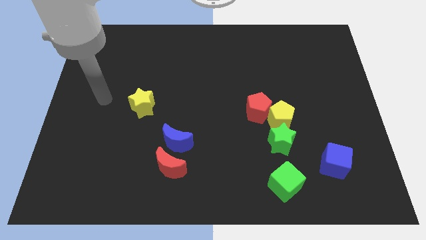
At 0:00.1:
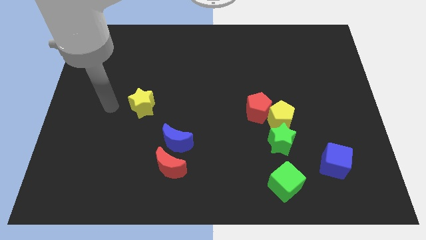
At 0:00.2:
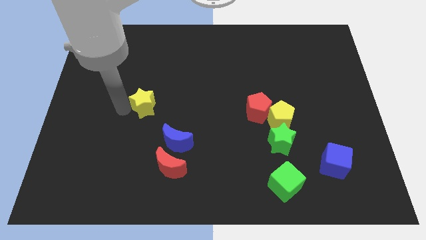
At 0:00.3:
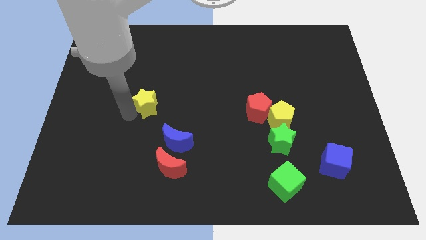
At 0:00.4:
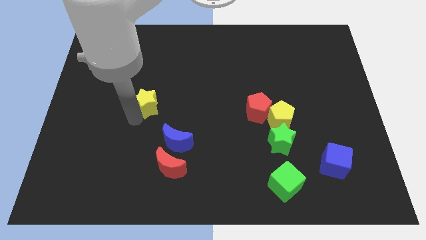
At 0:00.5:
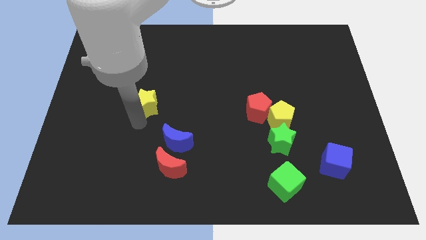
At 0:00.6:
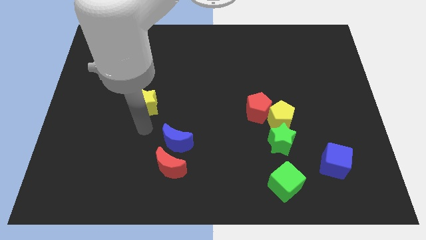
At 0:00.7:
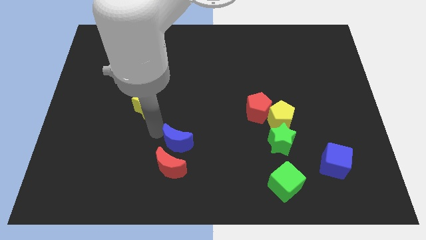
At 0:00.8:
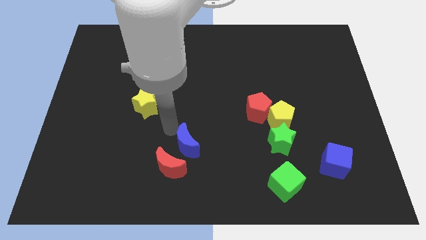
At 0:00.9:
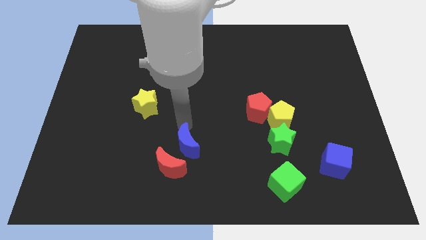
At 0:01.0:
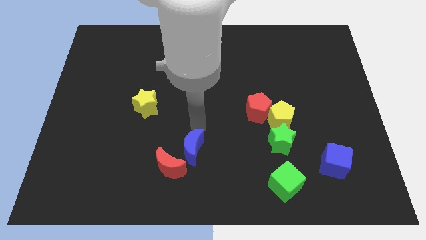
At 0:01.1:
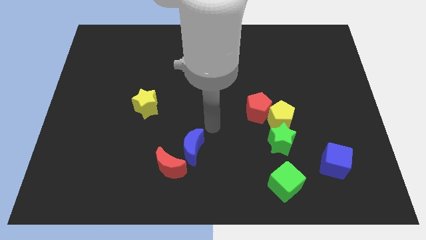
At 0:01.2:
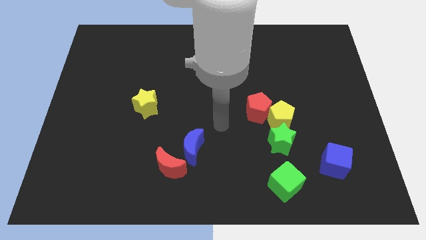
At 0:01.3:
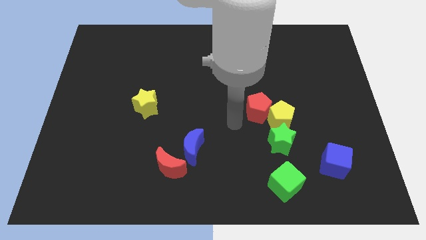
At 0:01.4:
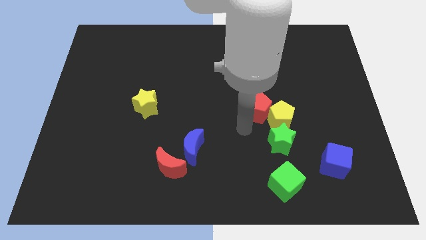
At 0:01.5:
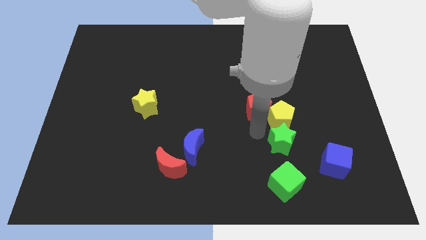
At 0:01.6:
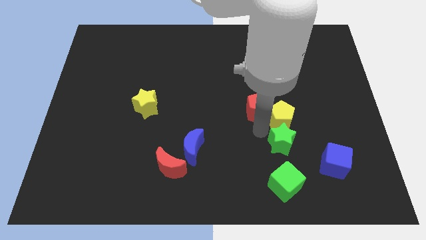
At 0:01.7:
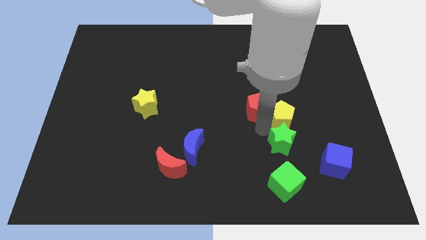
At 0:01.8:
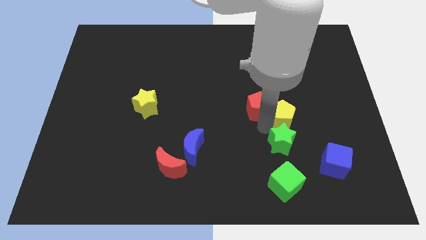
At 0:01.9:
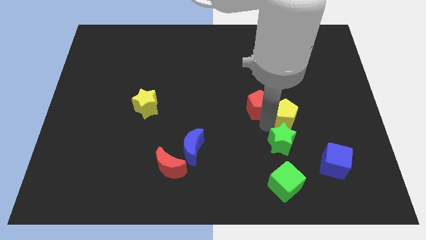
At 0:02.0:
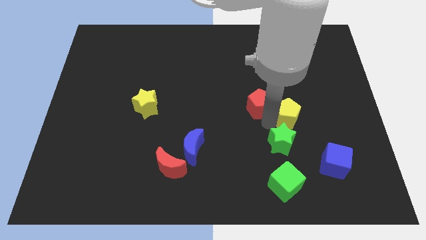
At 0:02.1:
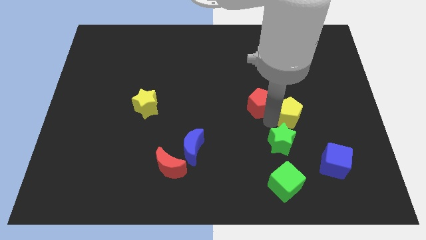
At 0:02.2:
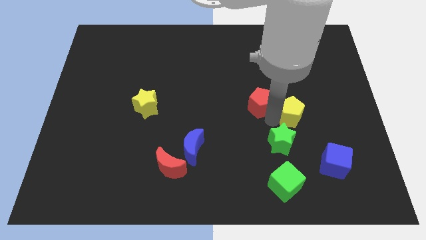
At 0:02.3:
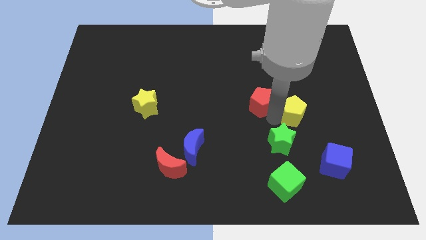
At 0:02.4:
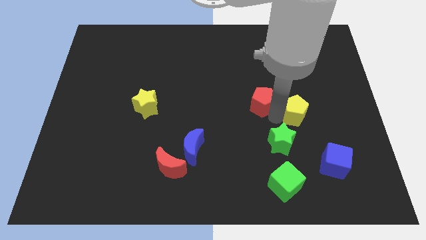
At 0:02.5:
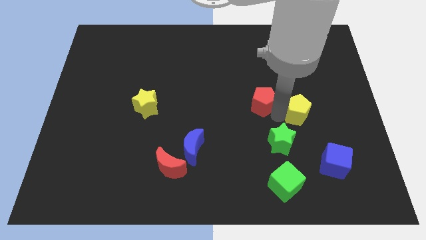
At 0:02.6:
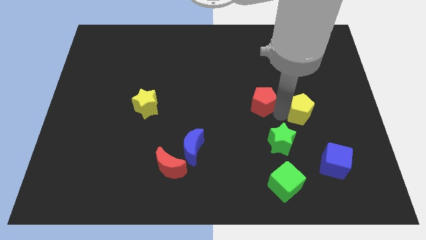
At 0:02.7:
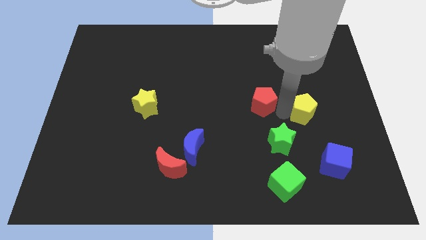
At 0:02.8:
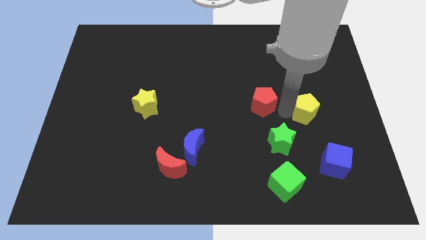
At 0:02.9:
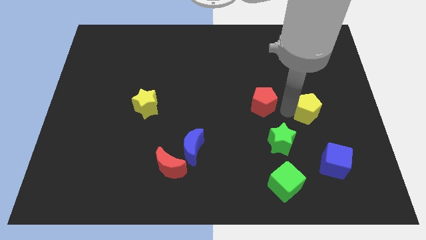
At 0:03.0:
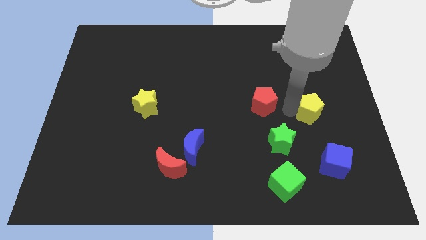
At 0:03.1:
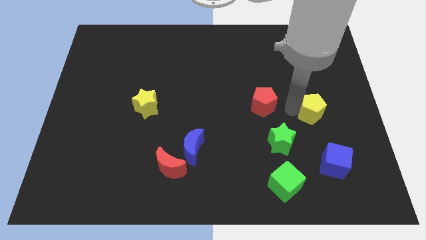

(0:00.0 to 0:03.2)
separate the yellow pentagon from the red pentagon and green star

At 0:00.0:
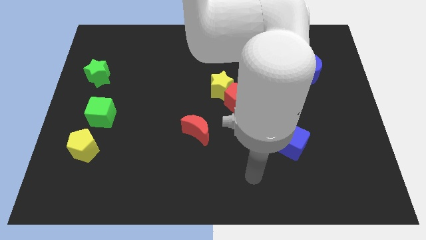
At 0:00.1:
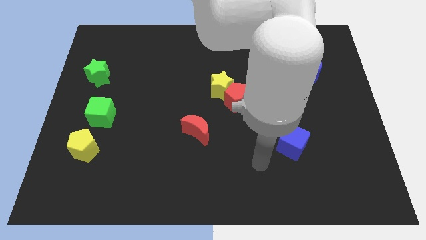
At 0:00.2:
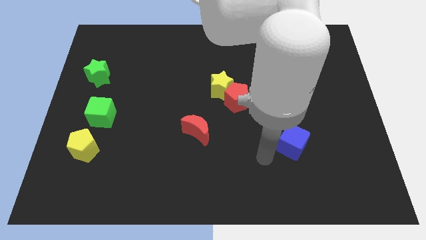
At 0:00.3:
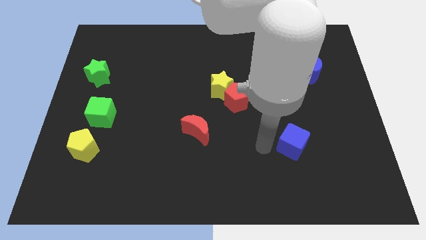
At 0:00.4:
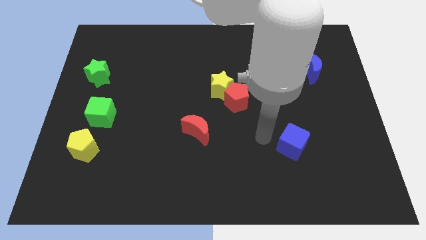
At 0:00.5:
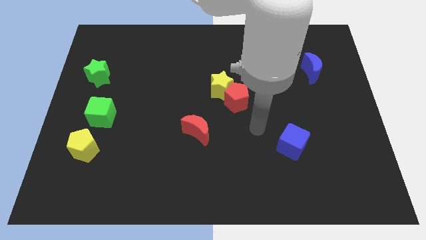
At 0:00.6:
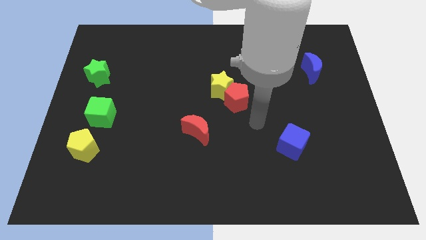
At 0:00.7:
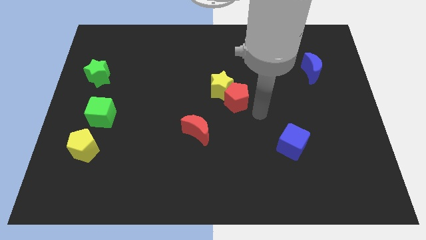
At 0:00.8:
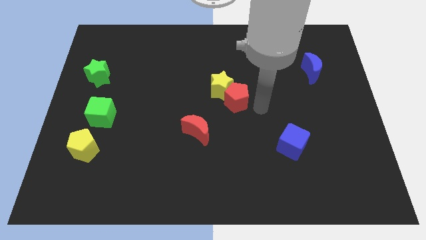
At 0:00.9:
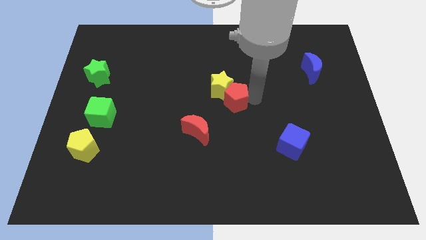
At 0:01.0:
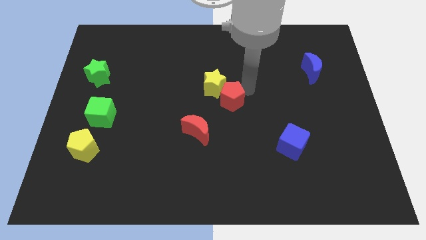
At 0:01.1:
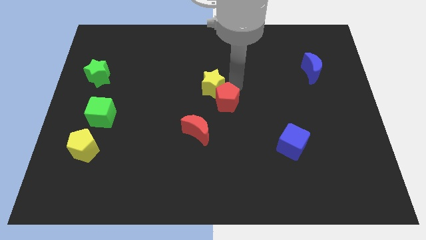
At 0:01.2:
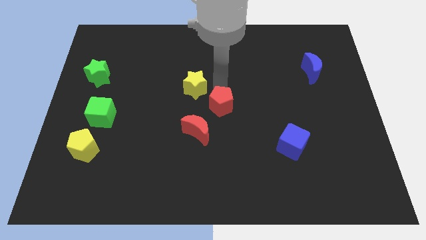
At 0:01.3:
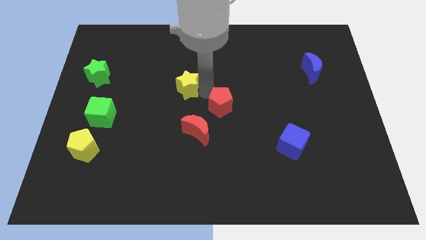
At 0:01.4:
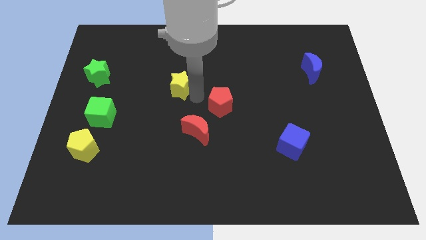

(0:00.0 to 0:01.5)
separate the red pentagon from the yellow star

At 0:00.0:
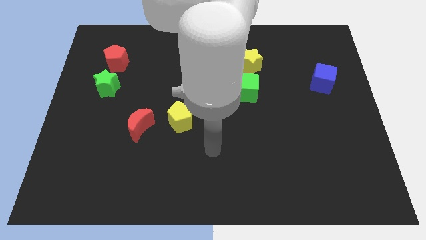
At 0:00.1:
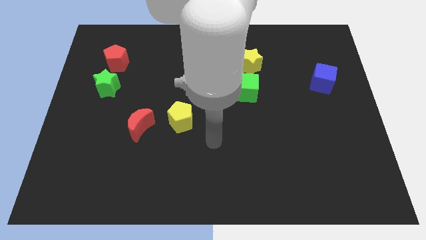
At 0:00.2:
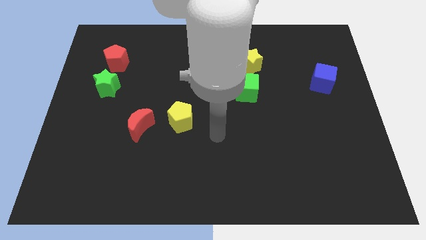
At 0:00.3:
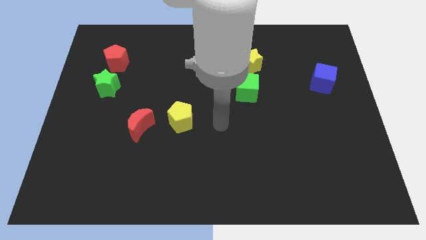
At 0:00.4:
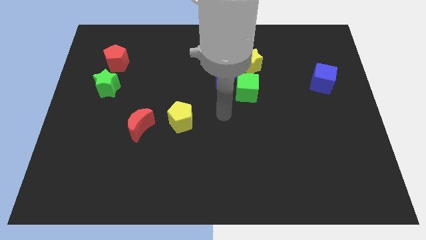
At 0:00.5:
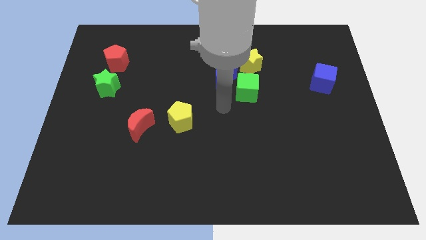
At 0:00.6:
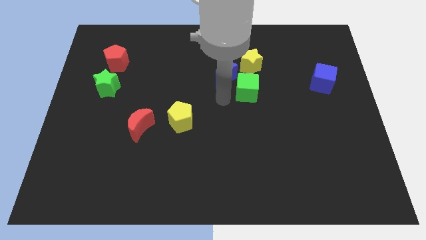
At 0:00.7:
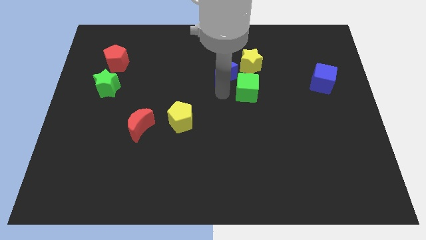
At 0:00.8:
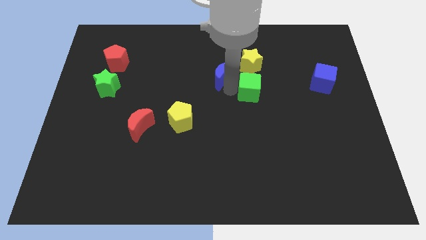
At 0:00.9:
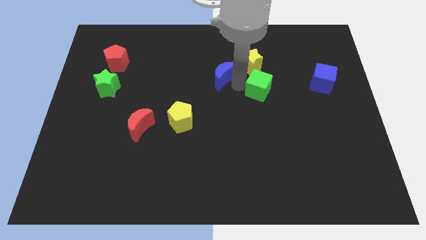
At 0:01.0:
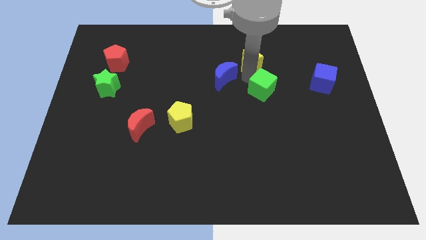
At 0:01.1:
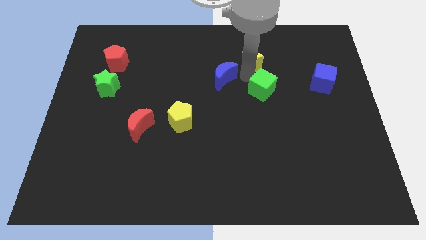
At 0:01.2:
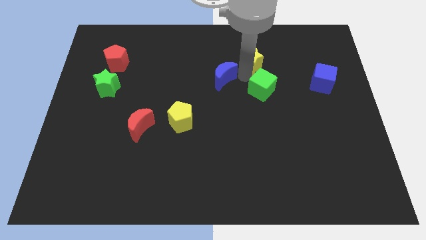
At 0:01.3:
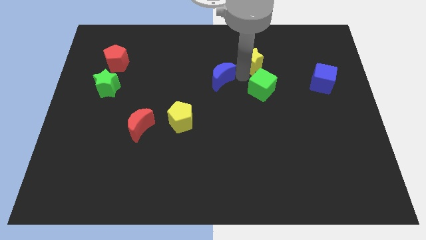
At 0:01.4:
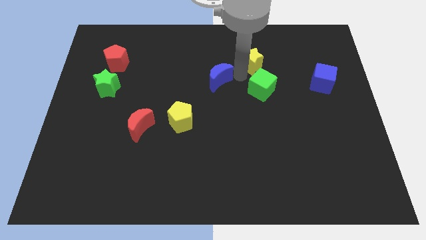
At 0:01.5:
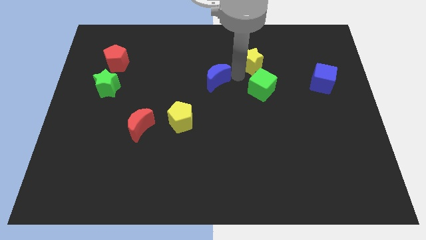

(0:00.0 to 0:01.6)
separate the blue moon from the green cube and yellow star

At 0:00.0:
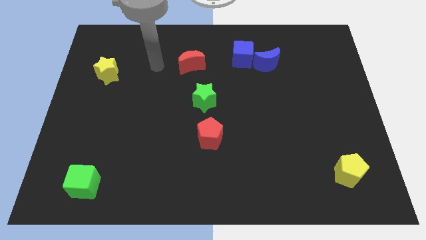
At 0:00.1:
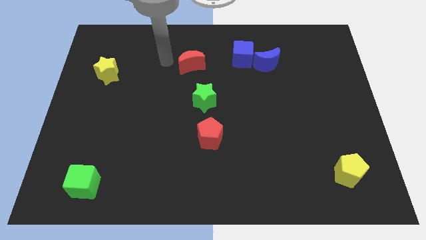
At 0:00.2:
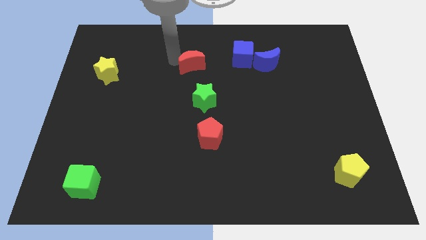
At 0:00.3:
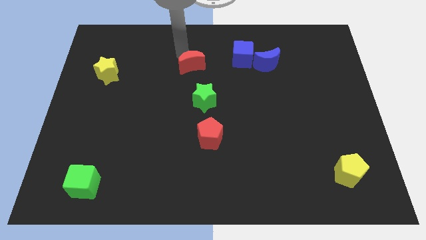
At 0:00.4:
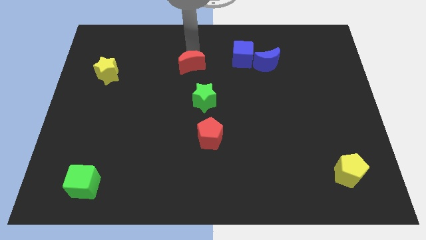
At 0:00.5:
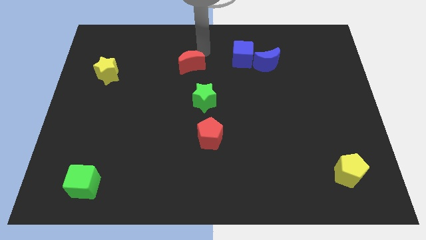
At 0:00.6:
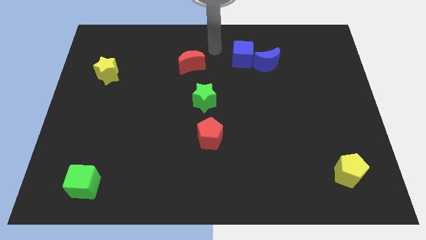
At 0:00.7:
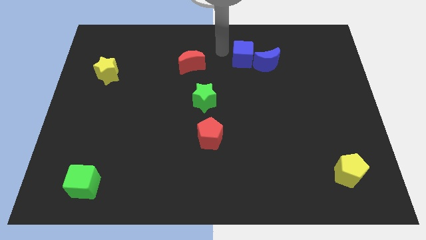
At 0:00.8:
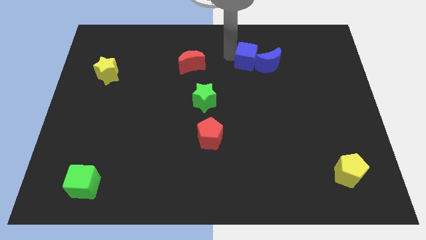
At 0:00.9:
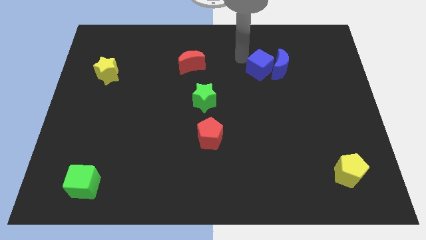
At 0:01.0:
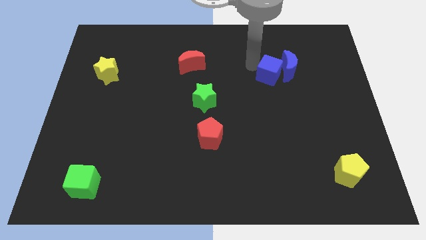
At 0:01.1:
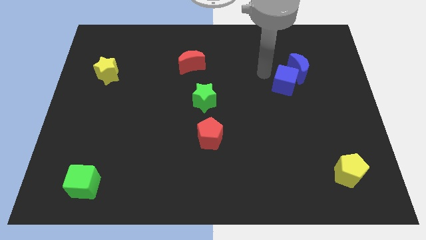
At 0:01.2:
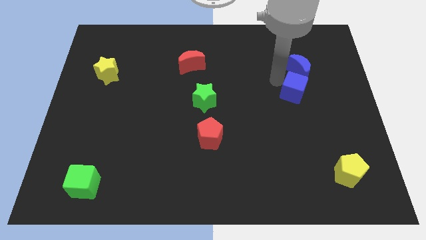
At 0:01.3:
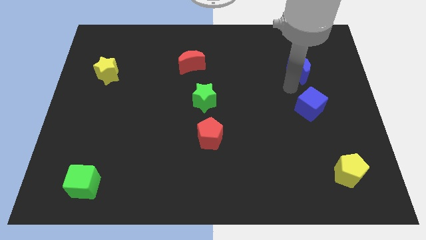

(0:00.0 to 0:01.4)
move the blue moon away from the blue cube

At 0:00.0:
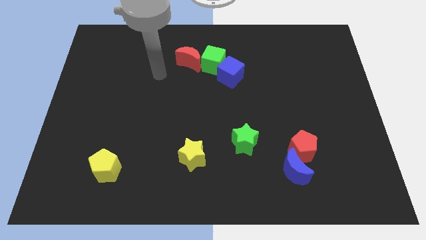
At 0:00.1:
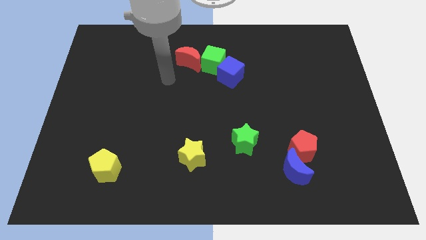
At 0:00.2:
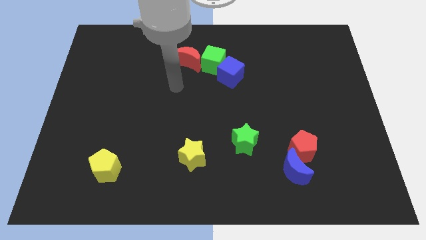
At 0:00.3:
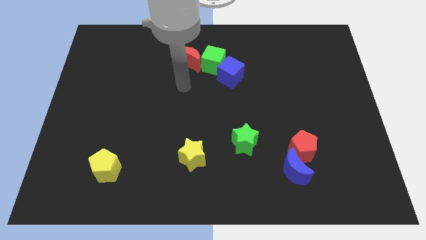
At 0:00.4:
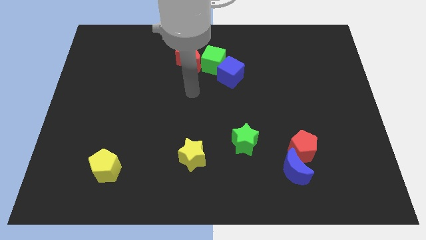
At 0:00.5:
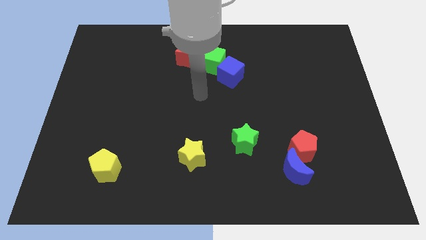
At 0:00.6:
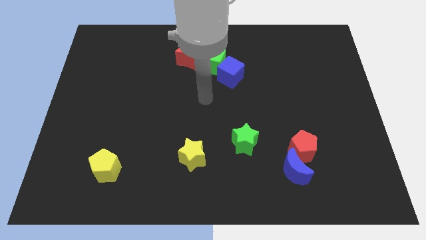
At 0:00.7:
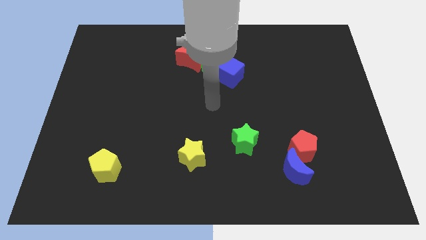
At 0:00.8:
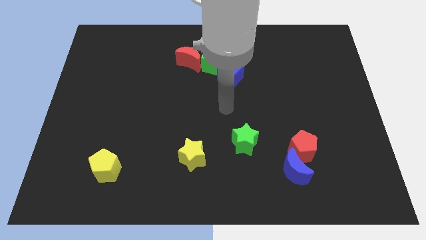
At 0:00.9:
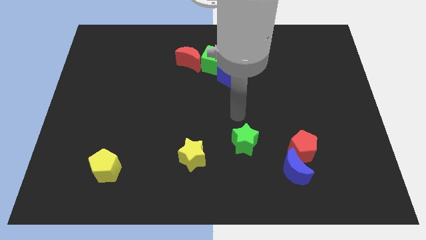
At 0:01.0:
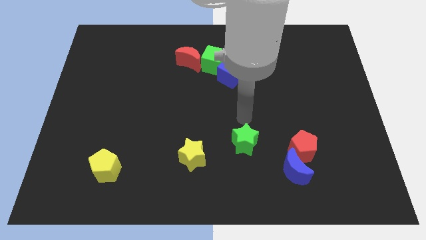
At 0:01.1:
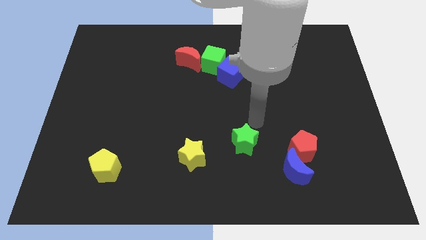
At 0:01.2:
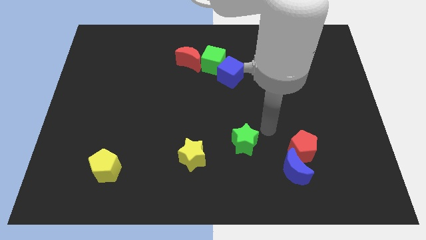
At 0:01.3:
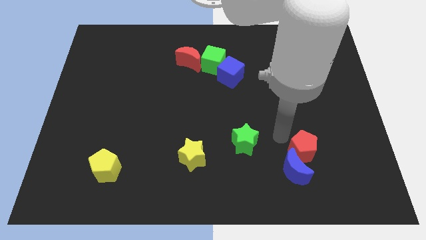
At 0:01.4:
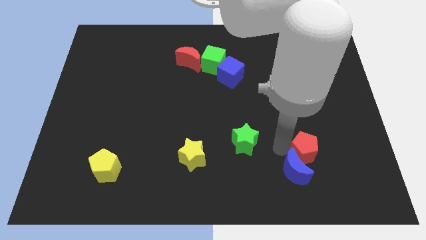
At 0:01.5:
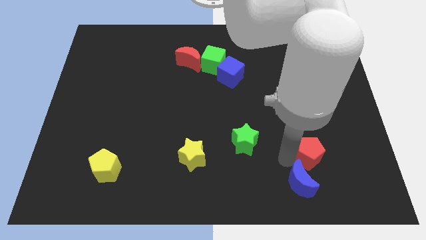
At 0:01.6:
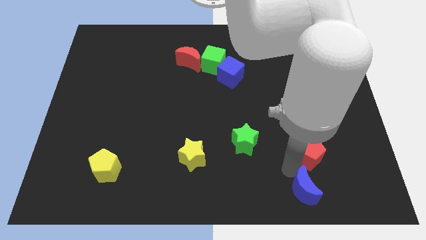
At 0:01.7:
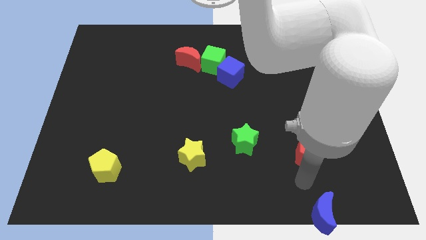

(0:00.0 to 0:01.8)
move the red pentagon away from the blue moon
